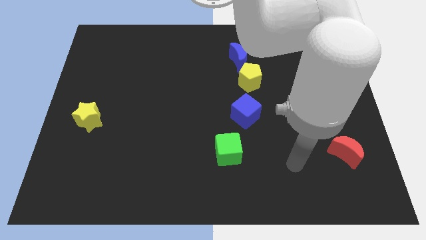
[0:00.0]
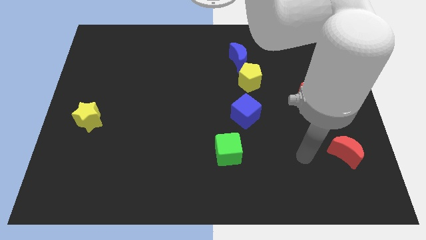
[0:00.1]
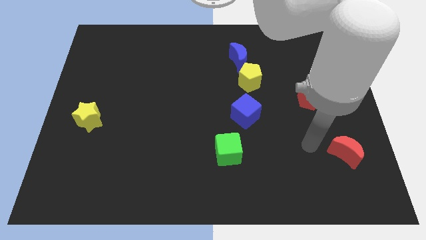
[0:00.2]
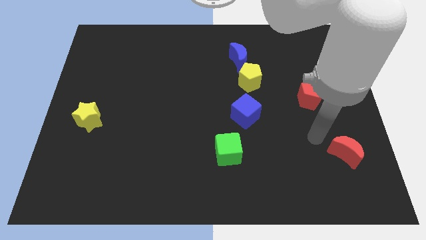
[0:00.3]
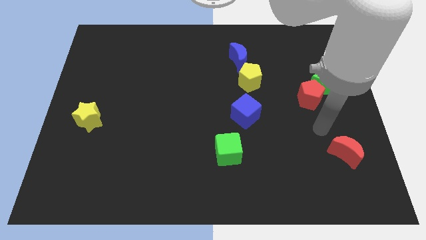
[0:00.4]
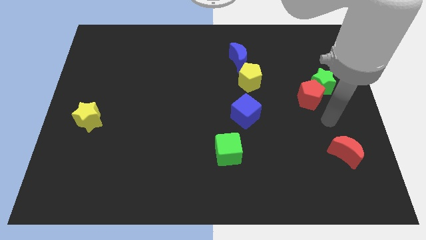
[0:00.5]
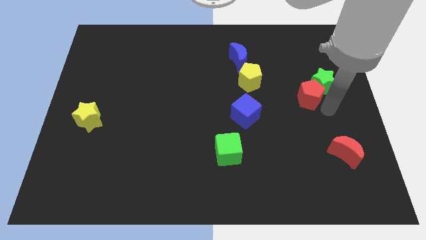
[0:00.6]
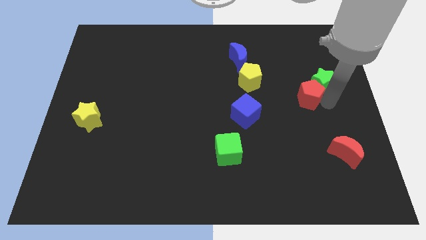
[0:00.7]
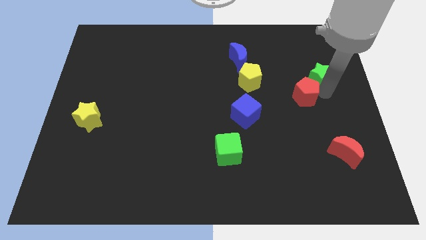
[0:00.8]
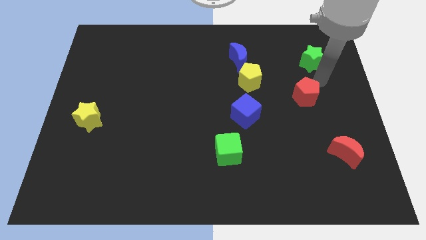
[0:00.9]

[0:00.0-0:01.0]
pull the red pentagon apart from the green star

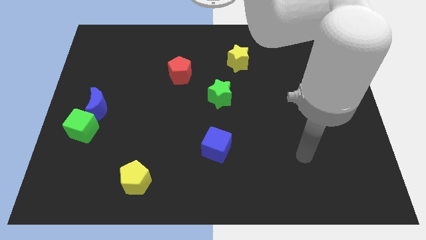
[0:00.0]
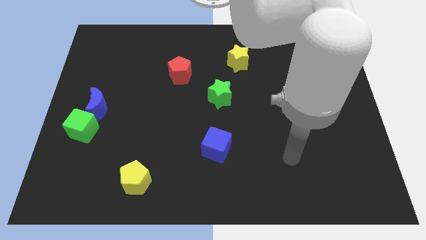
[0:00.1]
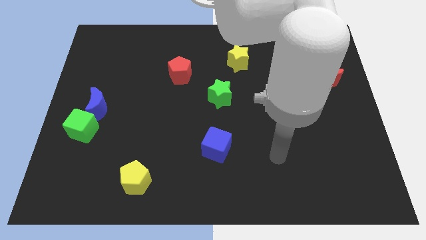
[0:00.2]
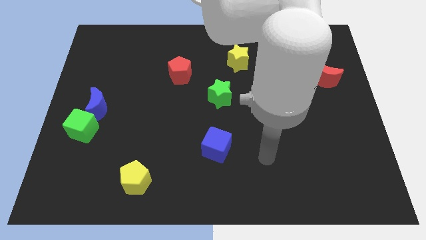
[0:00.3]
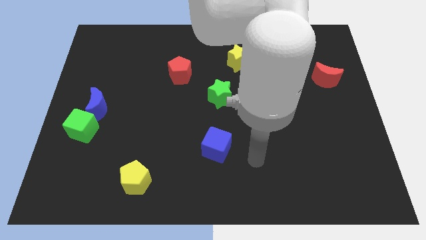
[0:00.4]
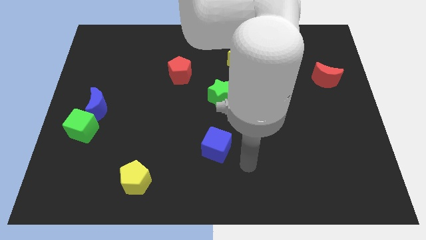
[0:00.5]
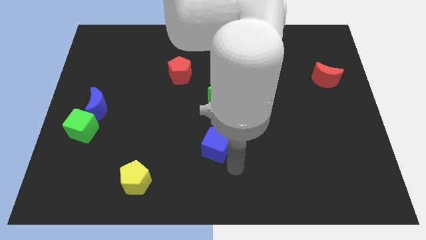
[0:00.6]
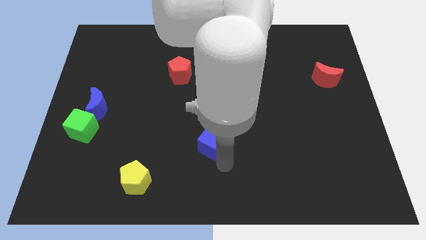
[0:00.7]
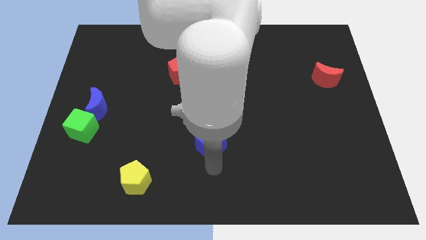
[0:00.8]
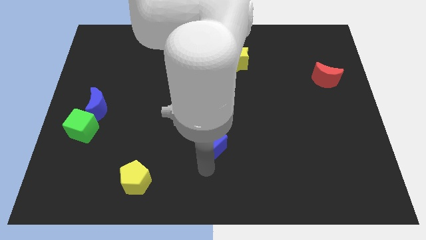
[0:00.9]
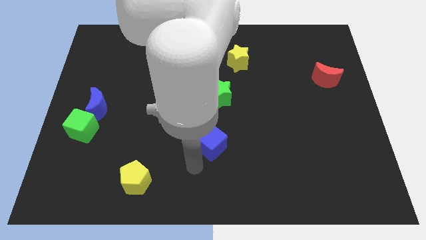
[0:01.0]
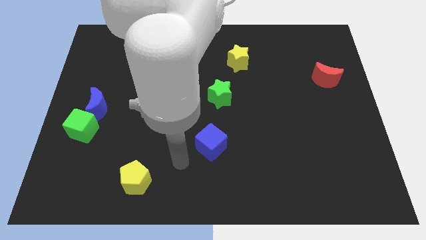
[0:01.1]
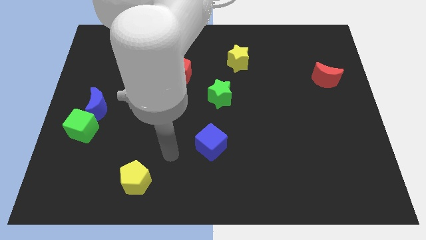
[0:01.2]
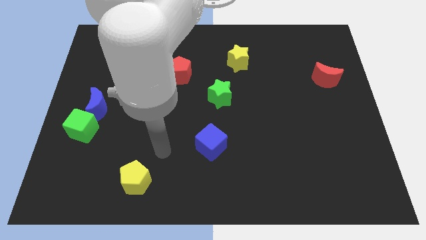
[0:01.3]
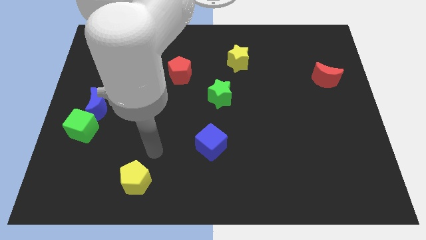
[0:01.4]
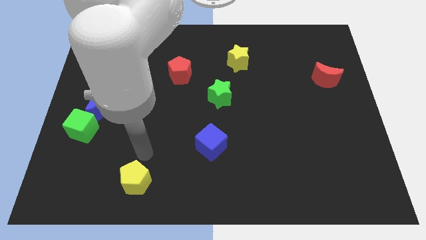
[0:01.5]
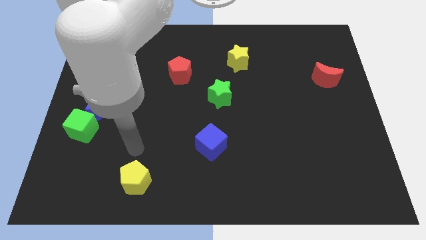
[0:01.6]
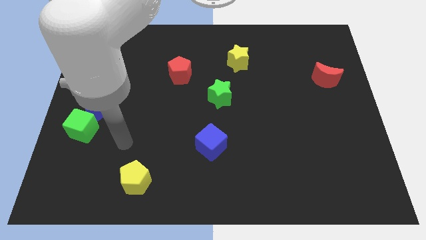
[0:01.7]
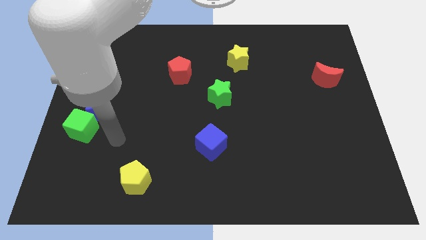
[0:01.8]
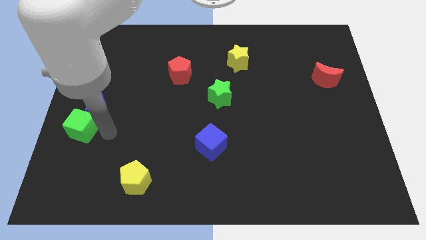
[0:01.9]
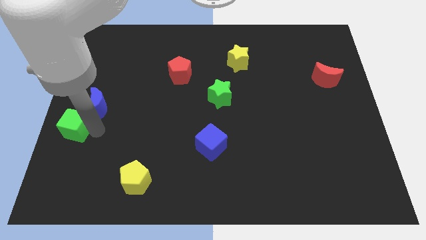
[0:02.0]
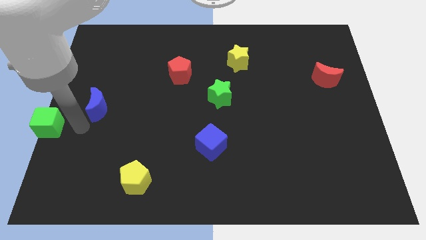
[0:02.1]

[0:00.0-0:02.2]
move the blue moon away from the green cube

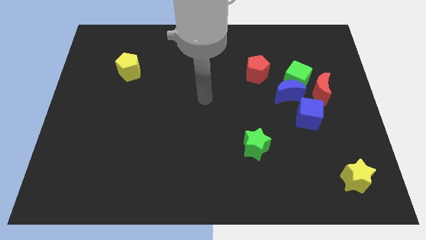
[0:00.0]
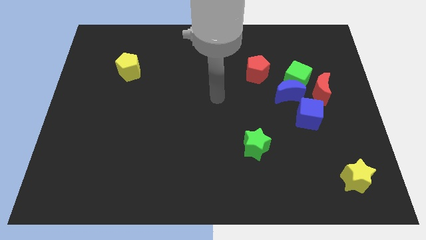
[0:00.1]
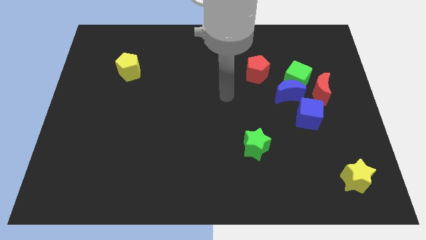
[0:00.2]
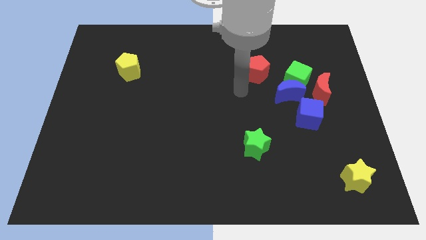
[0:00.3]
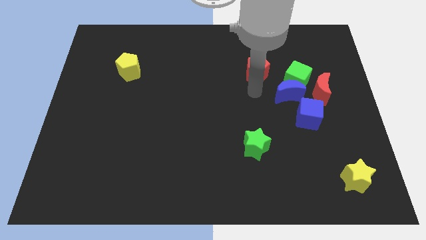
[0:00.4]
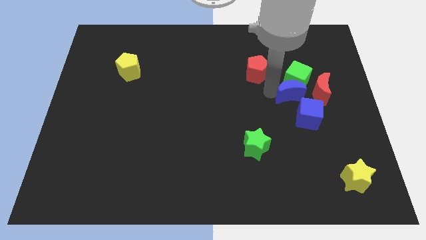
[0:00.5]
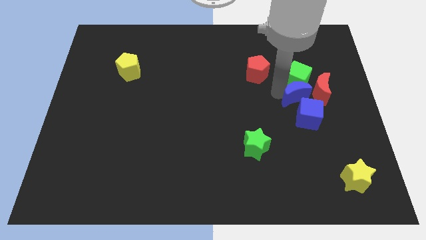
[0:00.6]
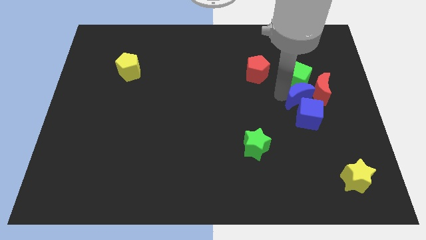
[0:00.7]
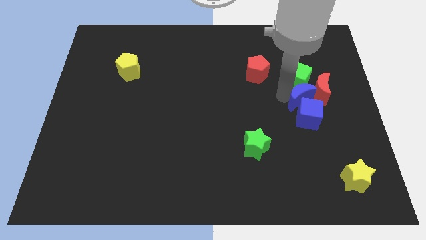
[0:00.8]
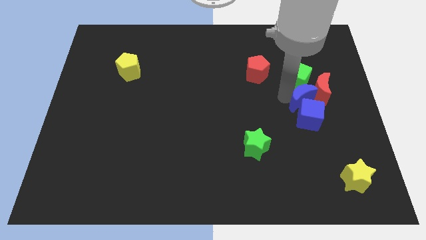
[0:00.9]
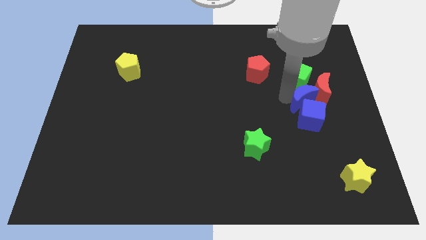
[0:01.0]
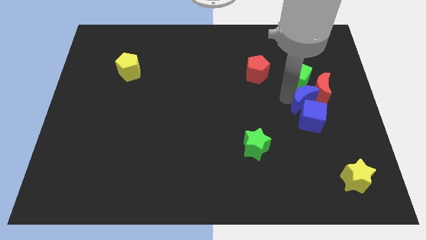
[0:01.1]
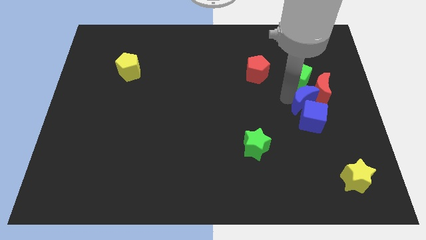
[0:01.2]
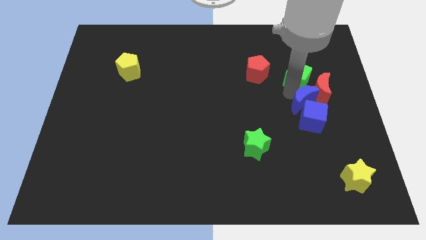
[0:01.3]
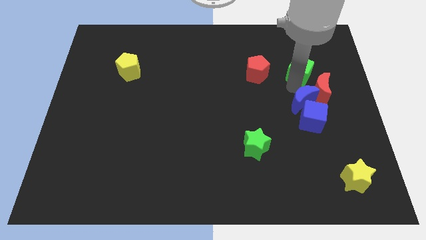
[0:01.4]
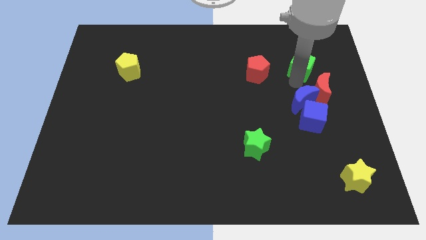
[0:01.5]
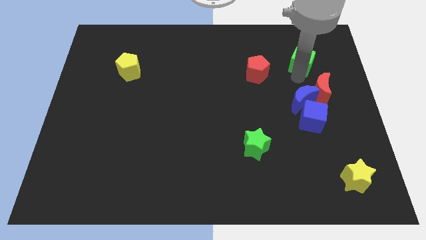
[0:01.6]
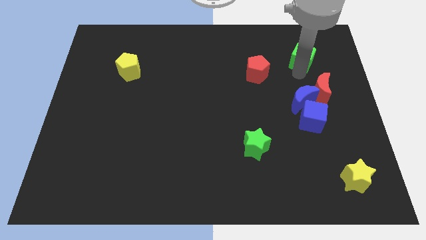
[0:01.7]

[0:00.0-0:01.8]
move the green cube away from the blue moon, red moon, and red pentagon

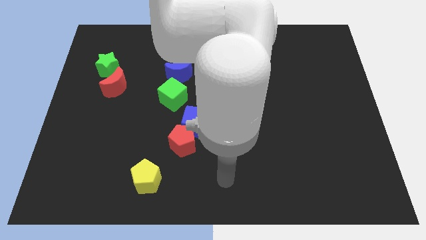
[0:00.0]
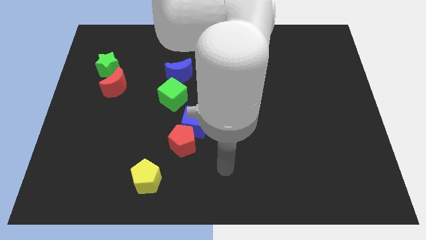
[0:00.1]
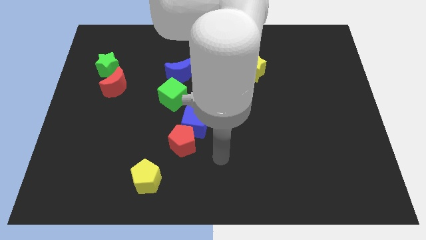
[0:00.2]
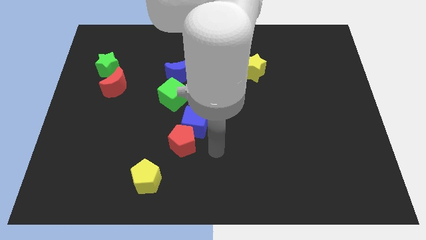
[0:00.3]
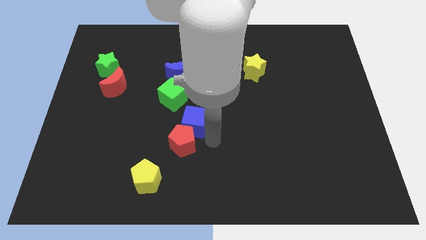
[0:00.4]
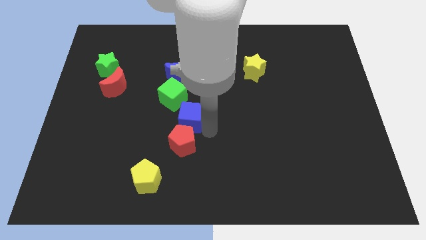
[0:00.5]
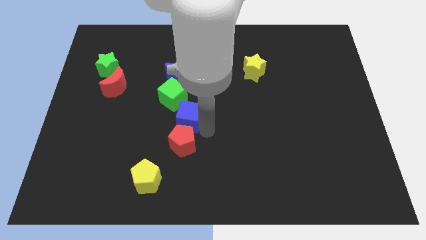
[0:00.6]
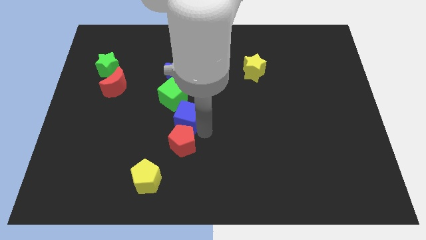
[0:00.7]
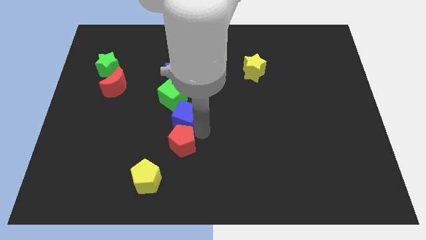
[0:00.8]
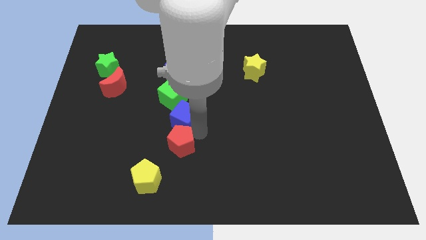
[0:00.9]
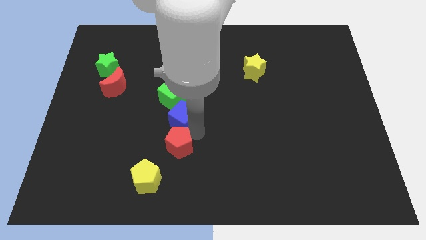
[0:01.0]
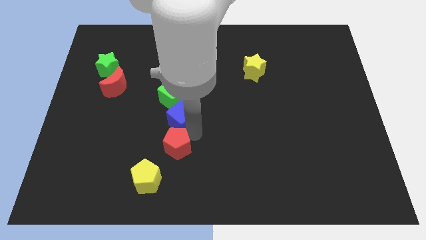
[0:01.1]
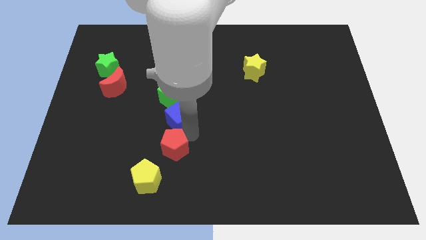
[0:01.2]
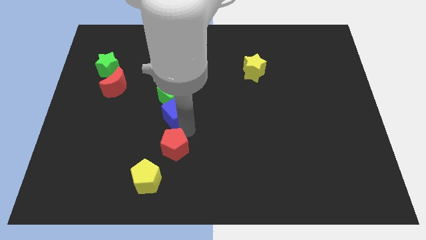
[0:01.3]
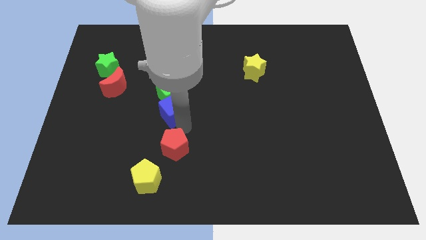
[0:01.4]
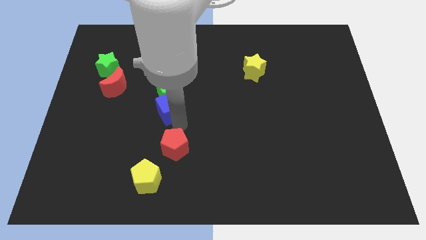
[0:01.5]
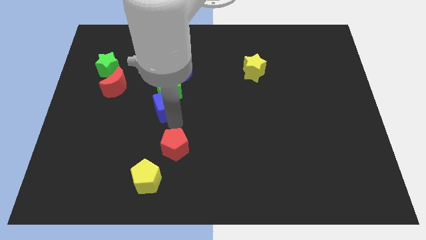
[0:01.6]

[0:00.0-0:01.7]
pull the red pentagon apart from the blue cube

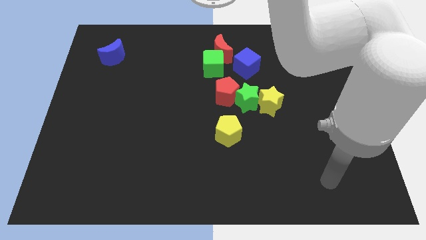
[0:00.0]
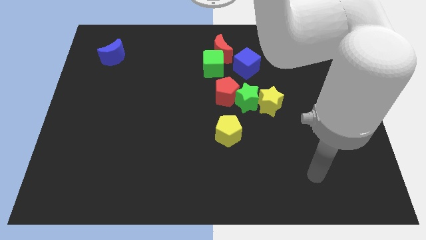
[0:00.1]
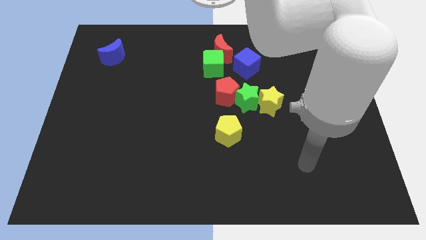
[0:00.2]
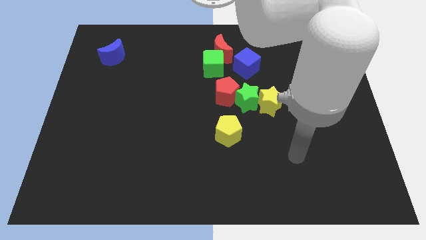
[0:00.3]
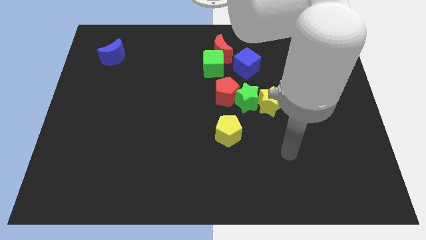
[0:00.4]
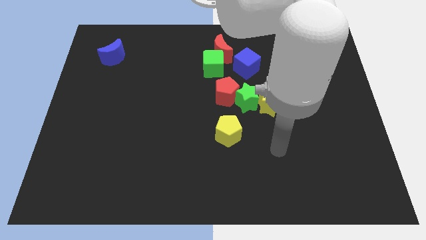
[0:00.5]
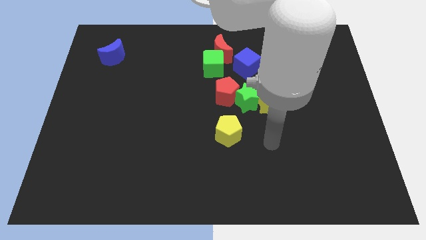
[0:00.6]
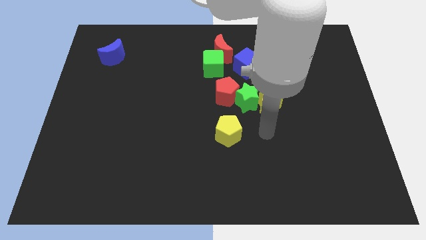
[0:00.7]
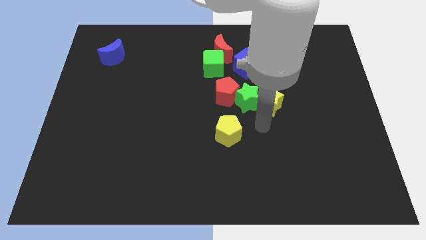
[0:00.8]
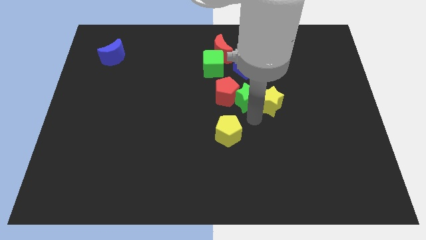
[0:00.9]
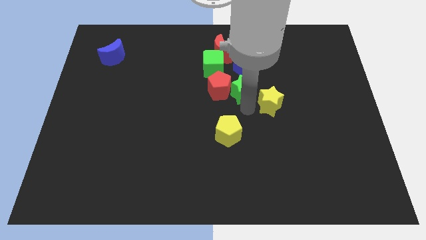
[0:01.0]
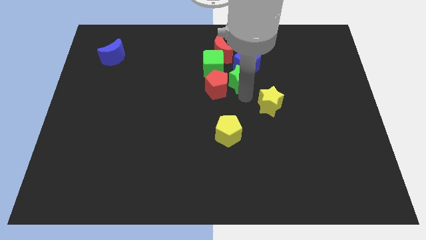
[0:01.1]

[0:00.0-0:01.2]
pull the yellow star apart from the green star

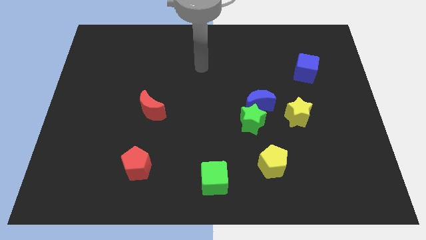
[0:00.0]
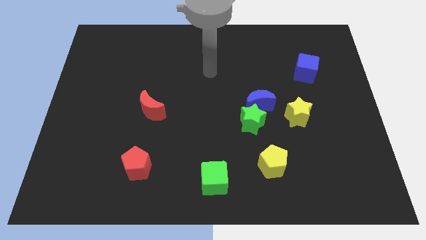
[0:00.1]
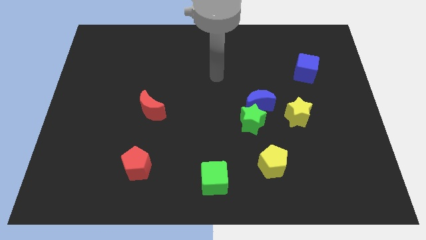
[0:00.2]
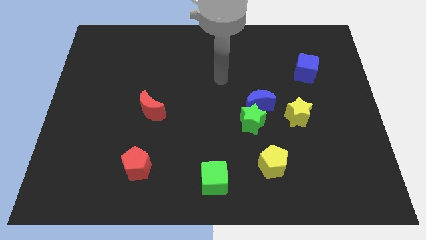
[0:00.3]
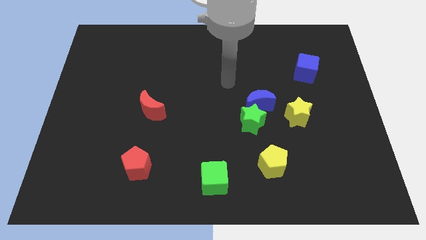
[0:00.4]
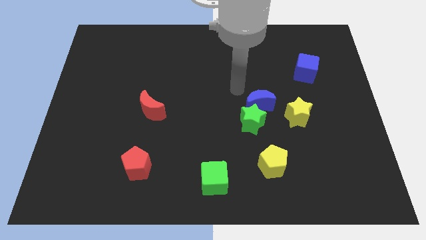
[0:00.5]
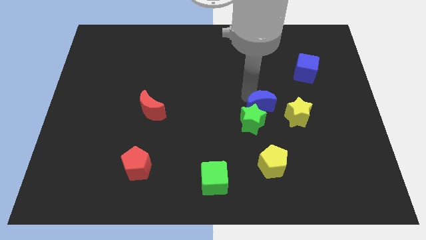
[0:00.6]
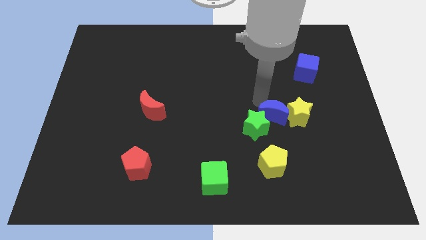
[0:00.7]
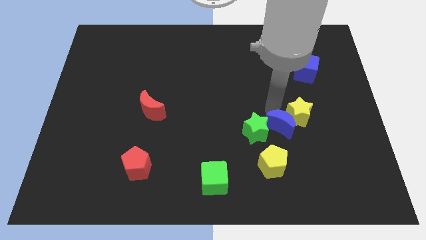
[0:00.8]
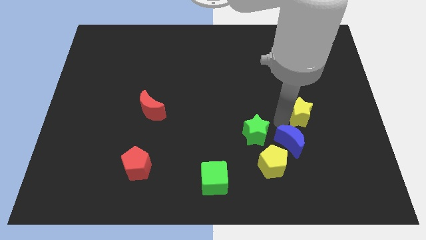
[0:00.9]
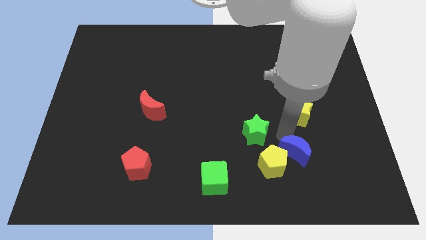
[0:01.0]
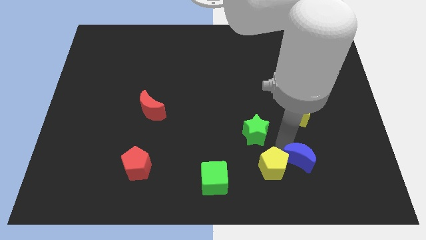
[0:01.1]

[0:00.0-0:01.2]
separate the green star from the blue moon

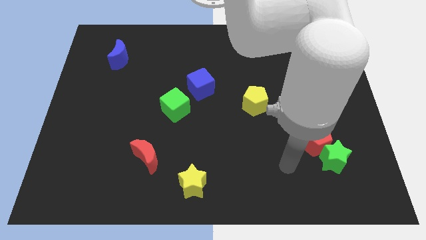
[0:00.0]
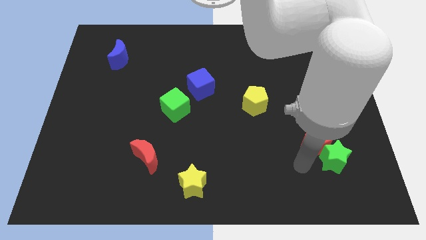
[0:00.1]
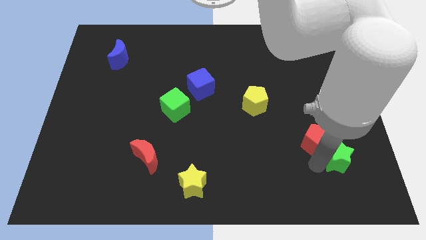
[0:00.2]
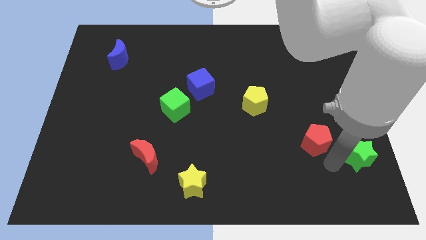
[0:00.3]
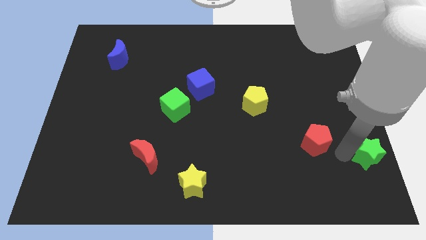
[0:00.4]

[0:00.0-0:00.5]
separate the red pentagon from the green star
